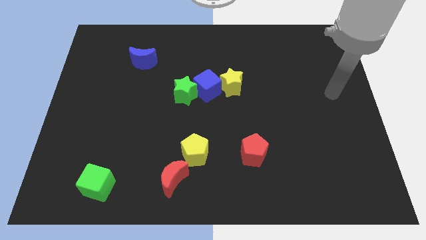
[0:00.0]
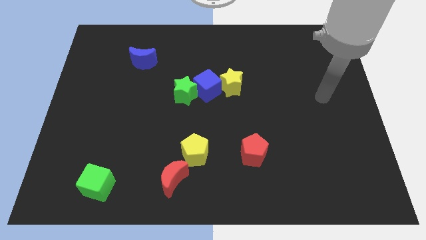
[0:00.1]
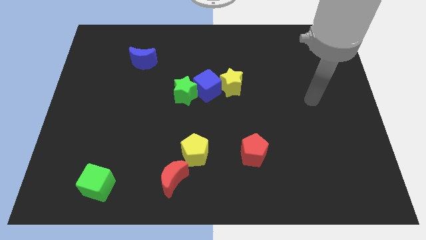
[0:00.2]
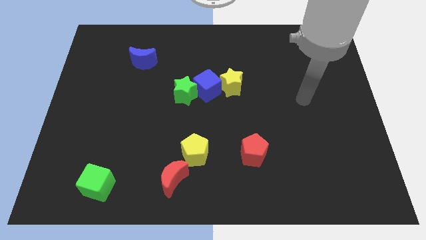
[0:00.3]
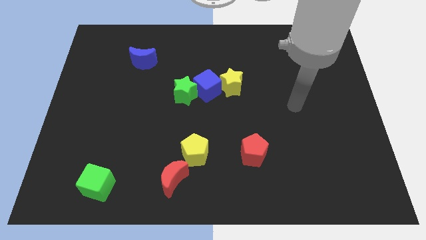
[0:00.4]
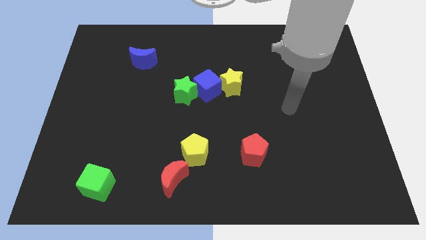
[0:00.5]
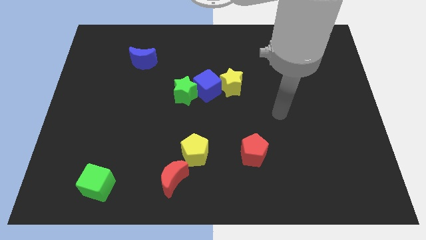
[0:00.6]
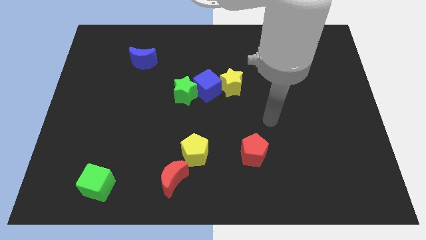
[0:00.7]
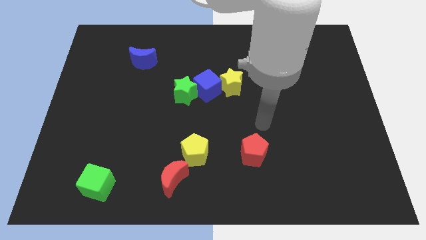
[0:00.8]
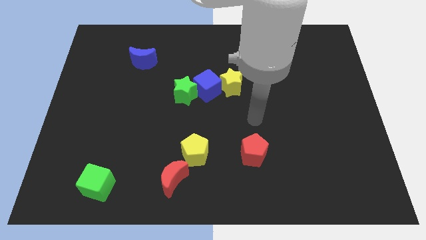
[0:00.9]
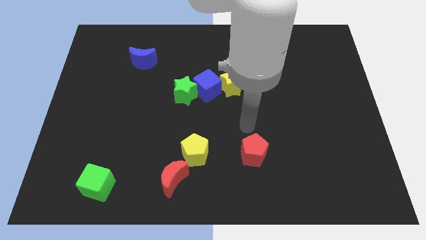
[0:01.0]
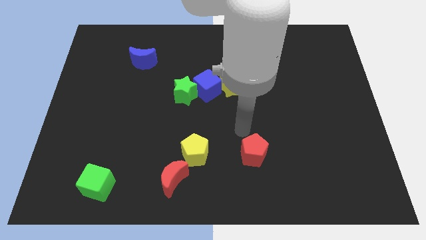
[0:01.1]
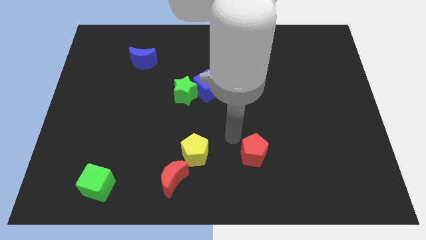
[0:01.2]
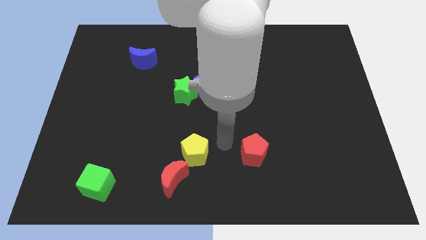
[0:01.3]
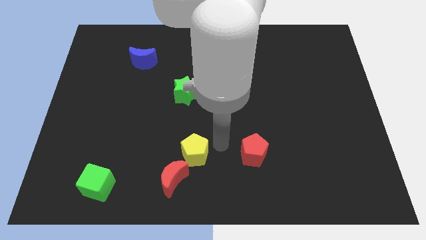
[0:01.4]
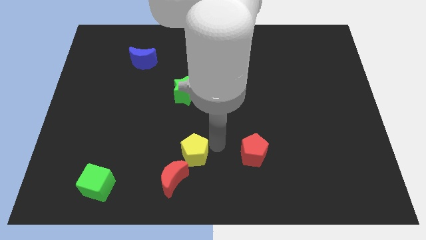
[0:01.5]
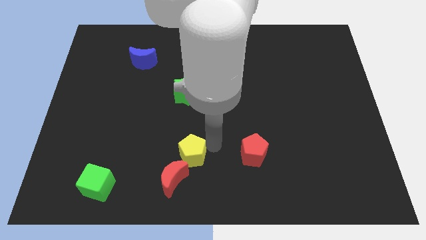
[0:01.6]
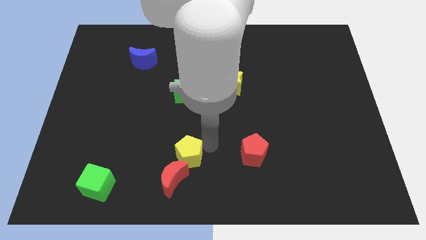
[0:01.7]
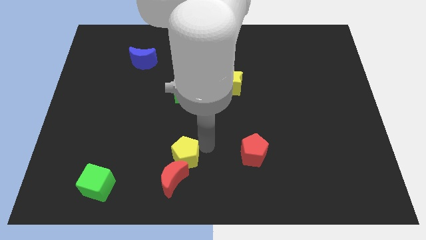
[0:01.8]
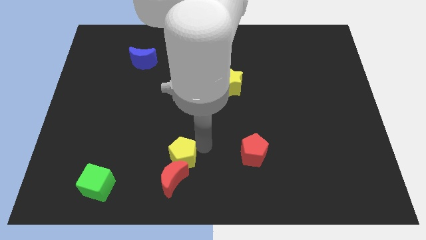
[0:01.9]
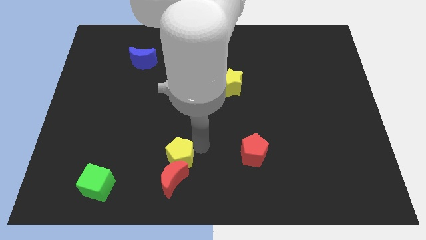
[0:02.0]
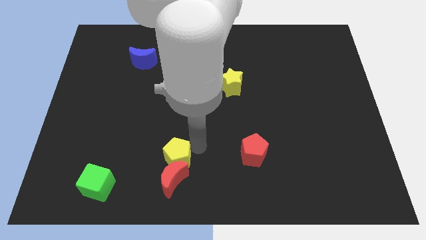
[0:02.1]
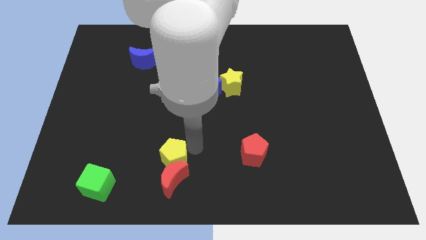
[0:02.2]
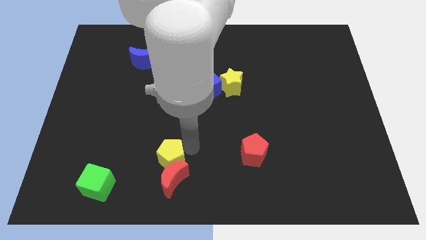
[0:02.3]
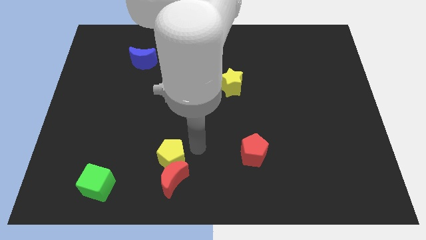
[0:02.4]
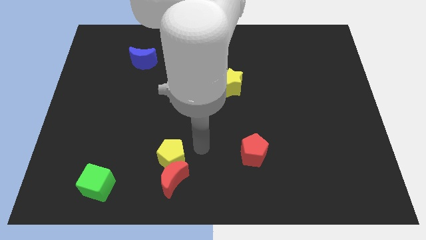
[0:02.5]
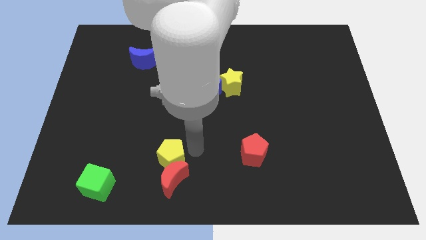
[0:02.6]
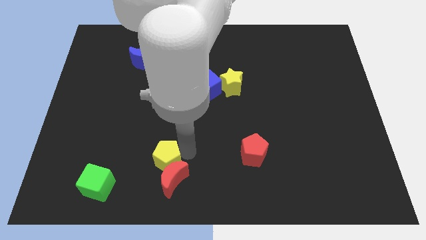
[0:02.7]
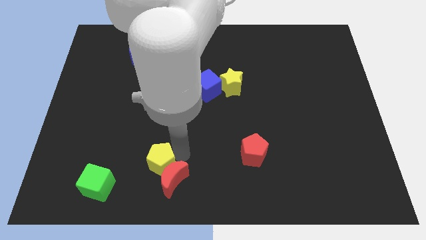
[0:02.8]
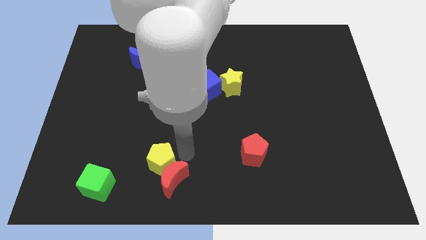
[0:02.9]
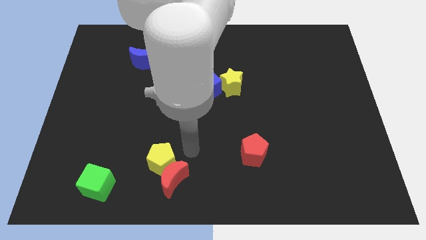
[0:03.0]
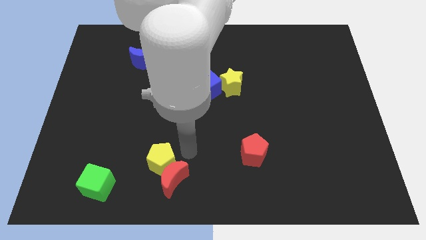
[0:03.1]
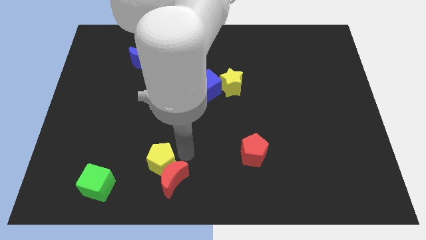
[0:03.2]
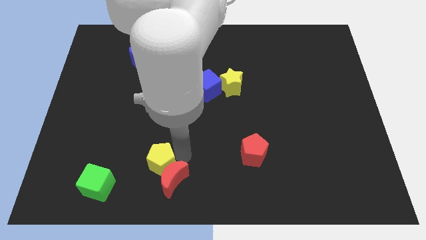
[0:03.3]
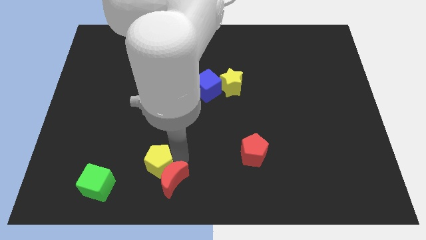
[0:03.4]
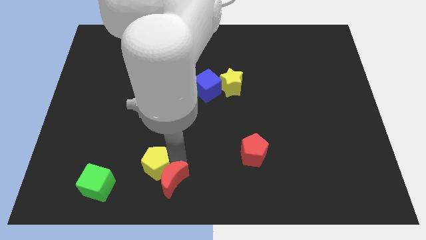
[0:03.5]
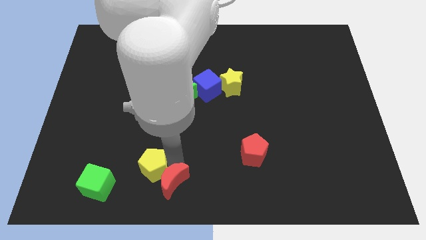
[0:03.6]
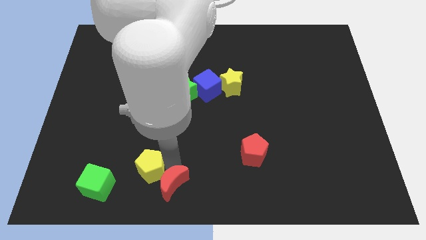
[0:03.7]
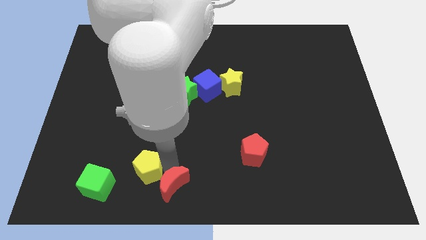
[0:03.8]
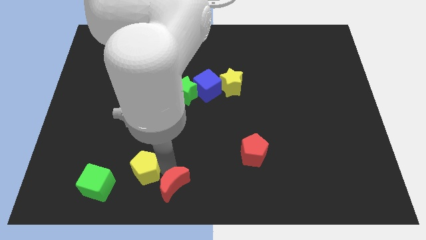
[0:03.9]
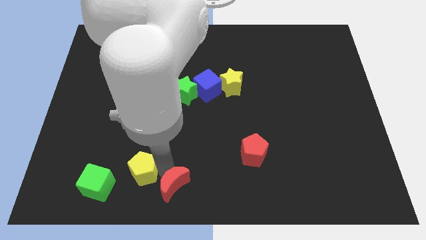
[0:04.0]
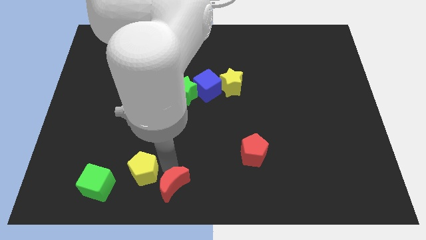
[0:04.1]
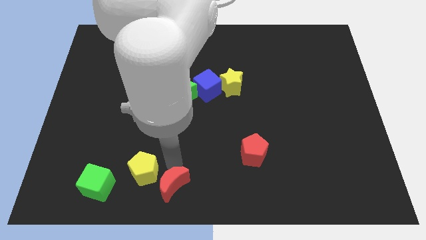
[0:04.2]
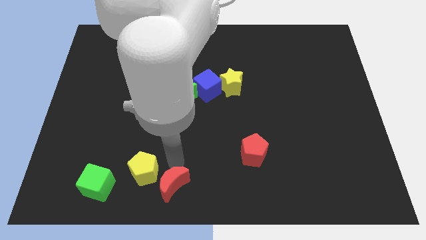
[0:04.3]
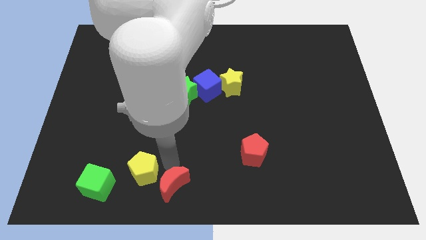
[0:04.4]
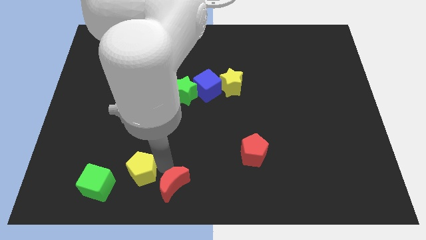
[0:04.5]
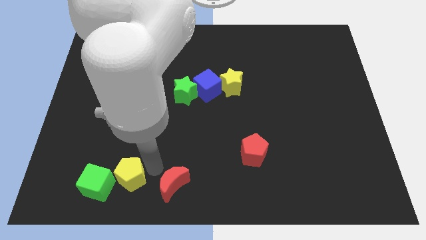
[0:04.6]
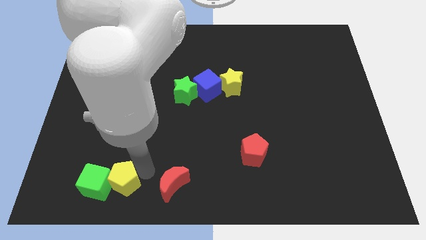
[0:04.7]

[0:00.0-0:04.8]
push the yellow pentagon towards the green cube

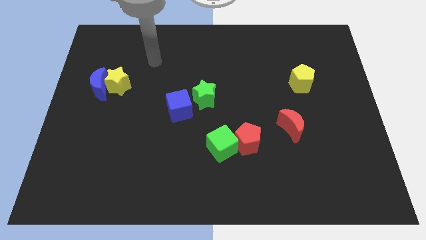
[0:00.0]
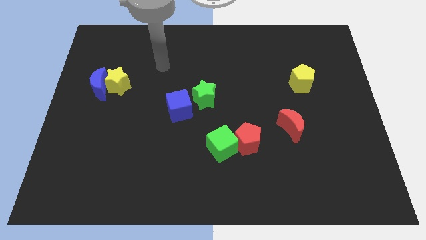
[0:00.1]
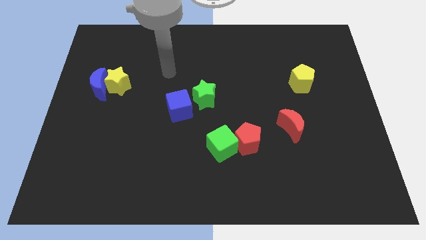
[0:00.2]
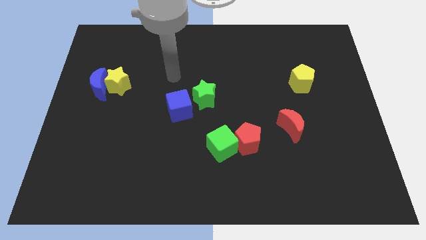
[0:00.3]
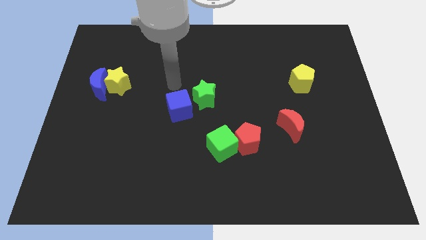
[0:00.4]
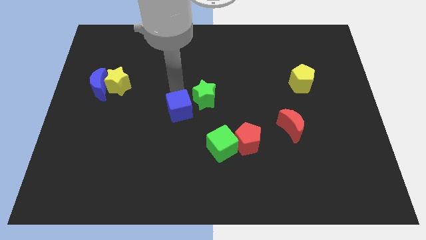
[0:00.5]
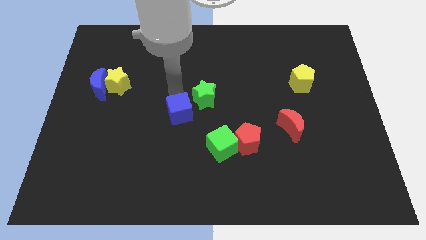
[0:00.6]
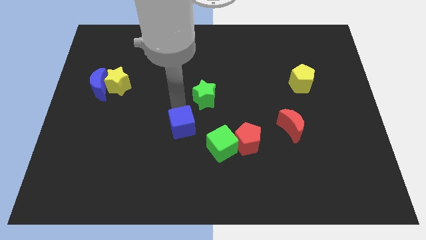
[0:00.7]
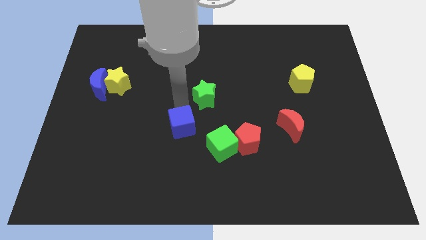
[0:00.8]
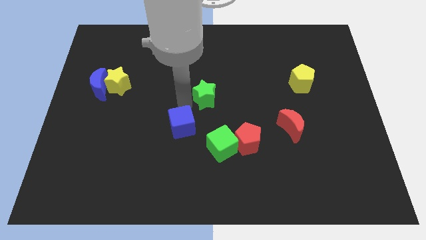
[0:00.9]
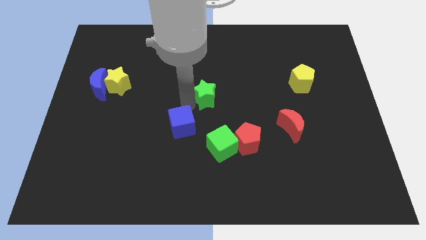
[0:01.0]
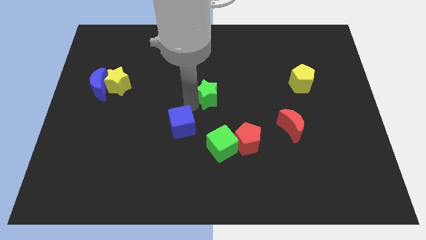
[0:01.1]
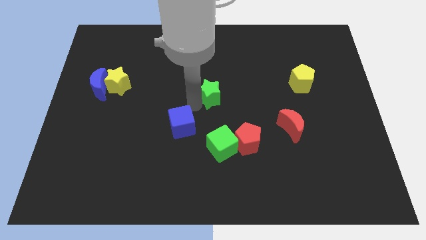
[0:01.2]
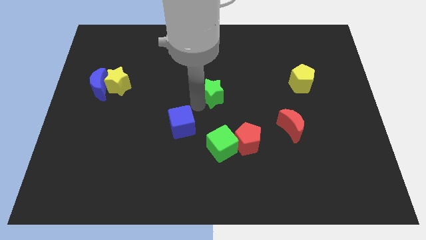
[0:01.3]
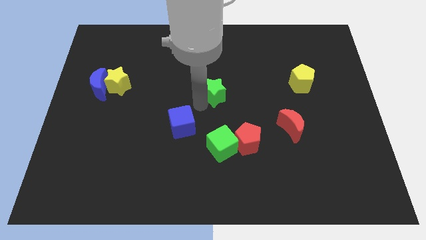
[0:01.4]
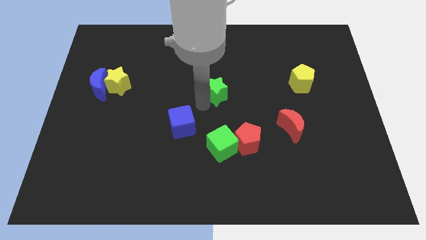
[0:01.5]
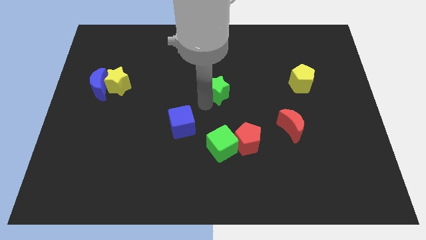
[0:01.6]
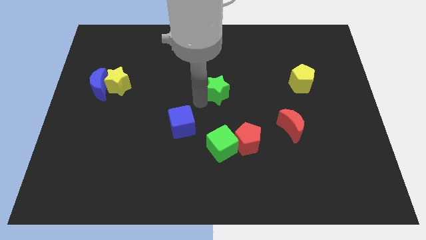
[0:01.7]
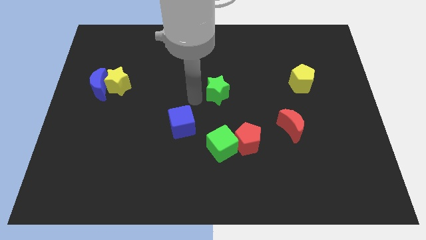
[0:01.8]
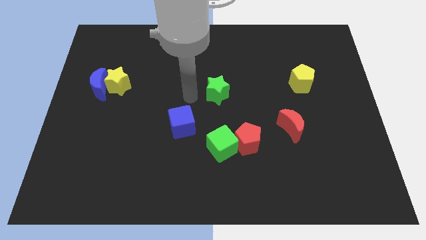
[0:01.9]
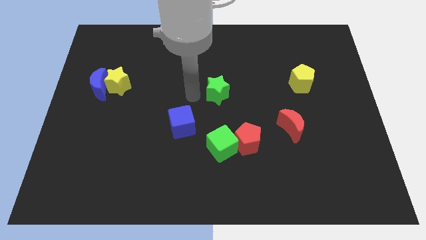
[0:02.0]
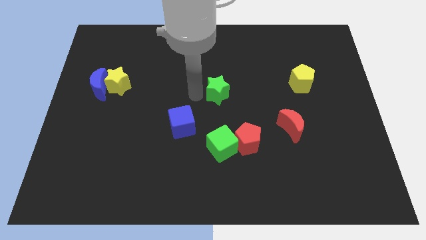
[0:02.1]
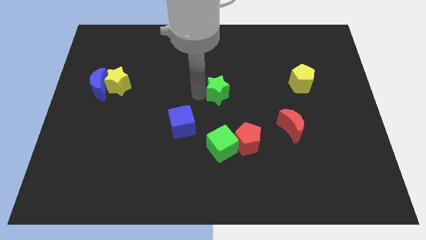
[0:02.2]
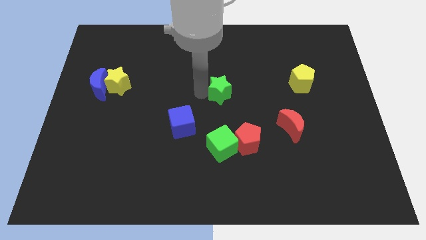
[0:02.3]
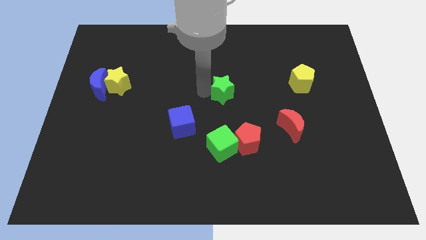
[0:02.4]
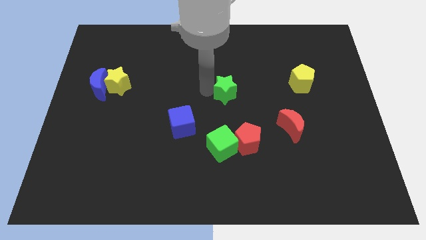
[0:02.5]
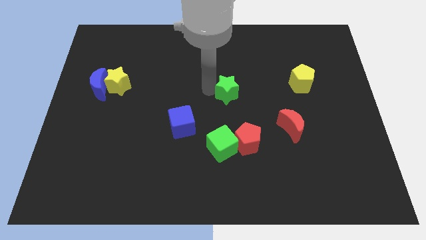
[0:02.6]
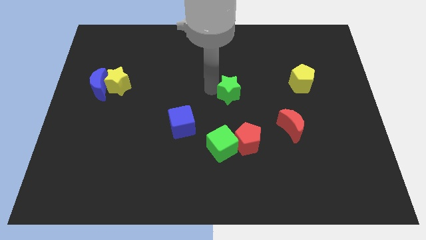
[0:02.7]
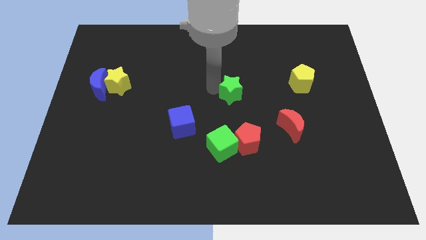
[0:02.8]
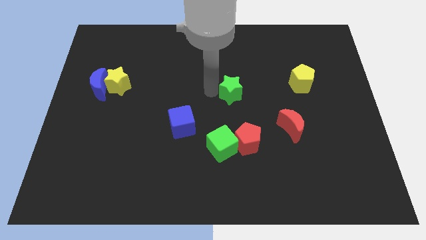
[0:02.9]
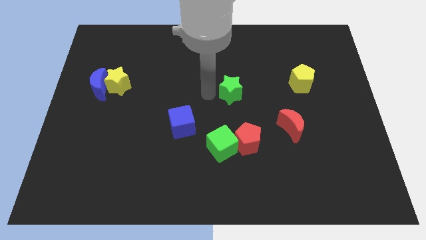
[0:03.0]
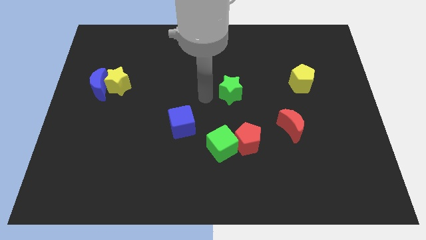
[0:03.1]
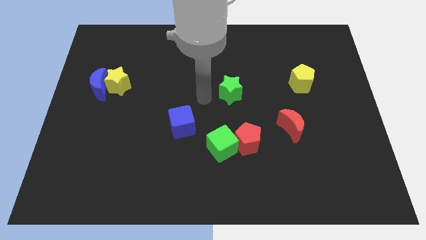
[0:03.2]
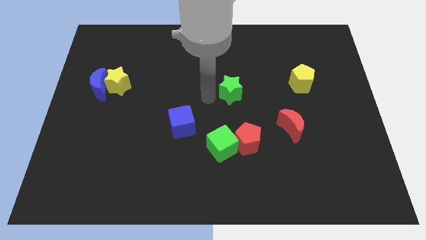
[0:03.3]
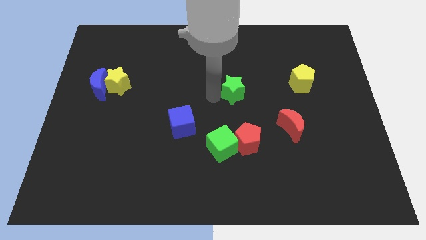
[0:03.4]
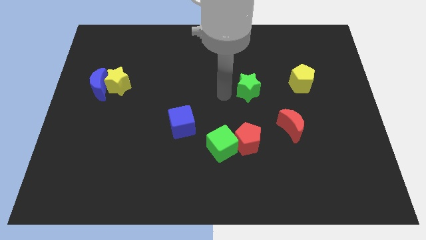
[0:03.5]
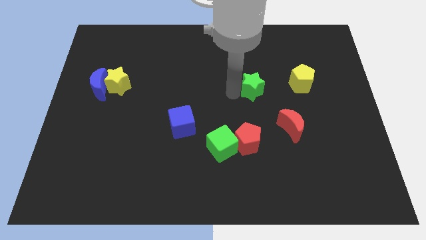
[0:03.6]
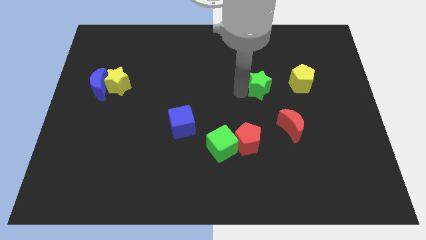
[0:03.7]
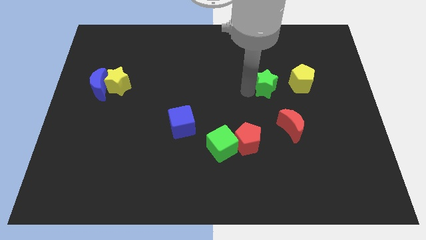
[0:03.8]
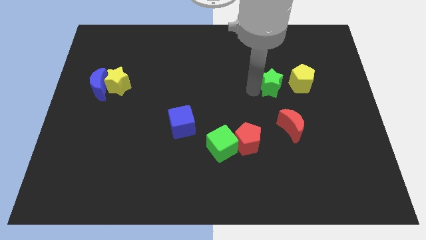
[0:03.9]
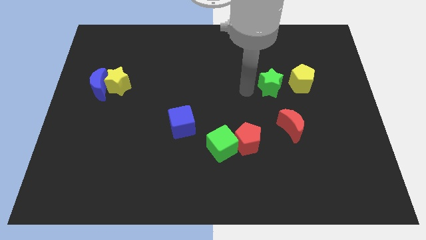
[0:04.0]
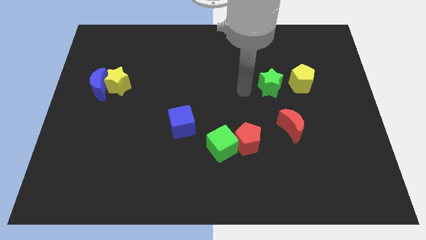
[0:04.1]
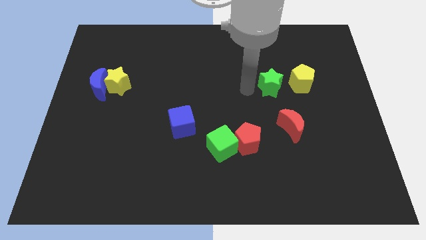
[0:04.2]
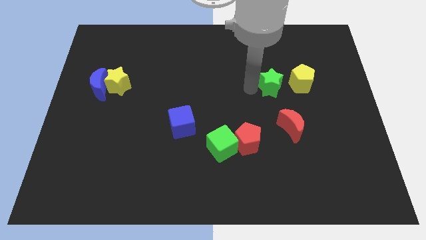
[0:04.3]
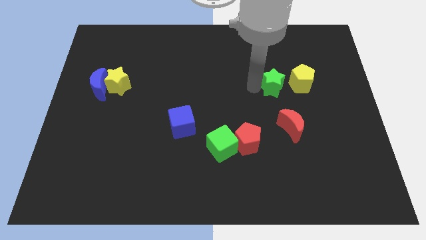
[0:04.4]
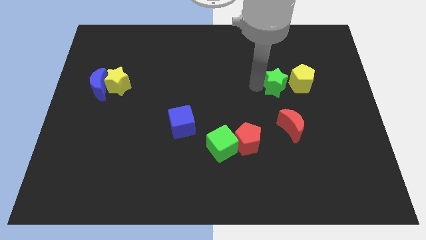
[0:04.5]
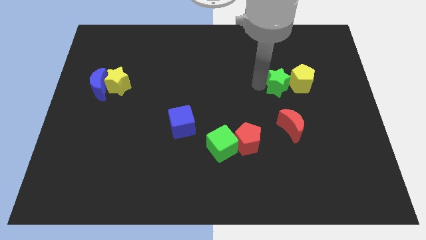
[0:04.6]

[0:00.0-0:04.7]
push the green star next to the yellow pentagon
